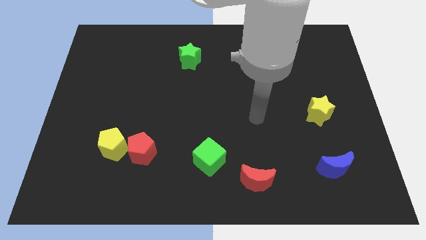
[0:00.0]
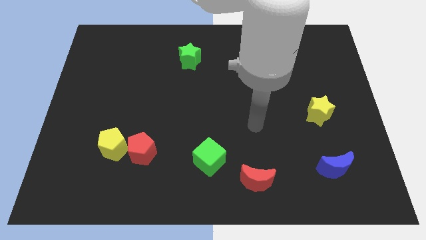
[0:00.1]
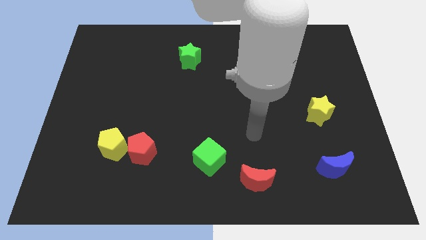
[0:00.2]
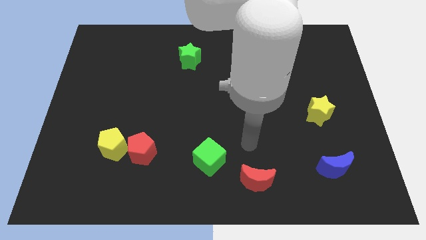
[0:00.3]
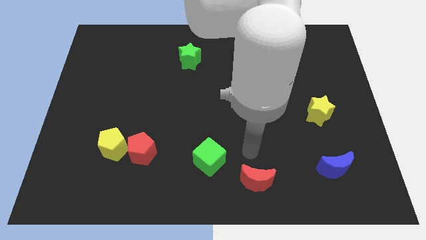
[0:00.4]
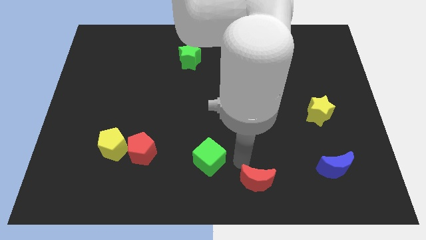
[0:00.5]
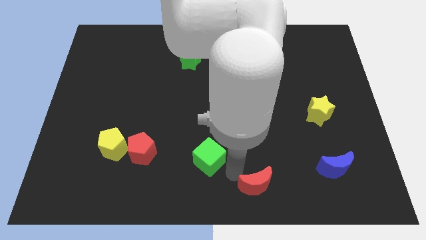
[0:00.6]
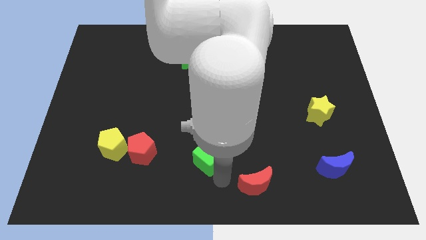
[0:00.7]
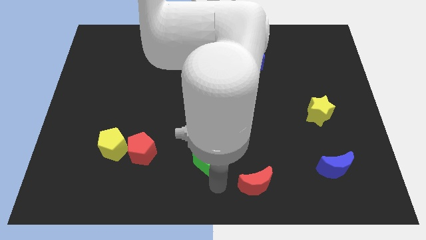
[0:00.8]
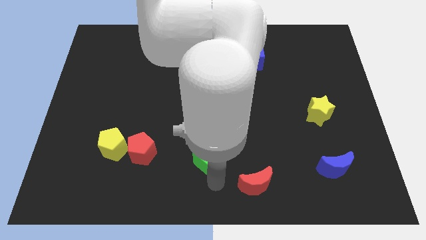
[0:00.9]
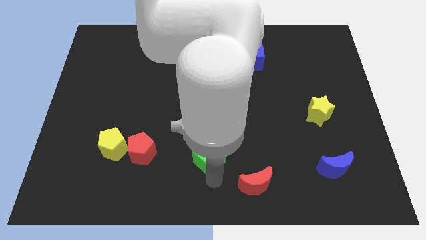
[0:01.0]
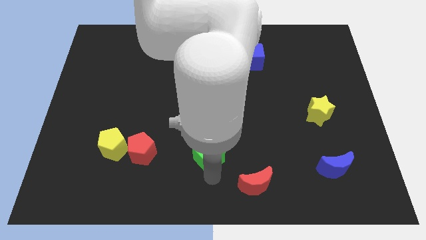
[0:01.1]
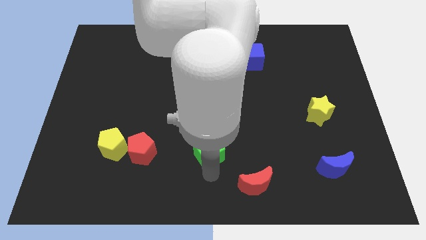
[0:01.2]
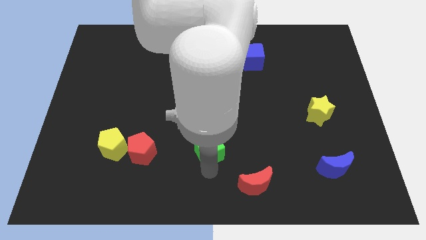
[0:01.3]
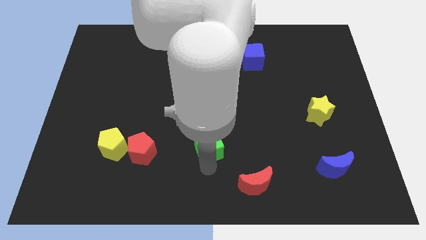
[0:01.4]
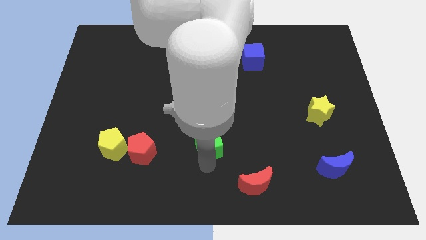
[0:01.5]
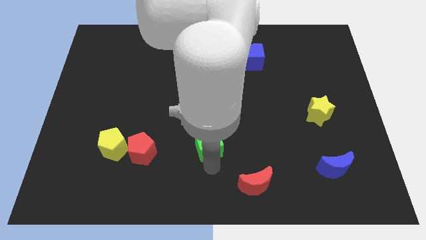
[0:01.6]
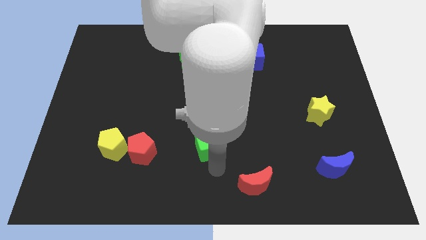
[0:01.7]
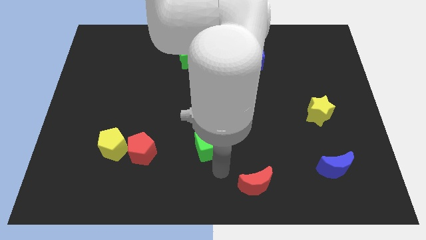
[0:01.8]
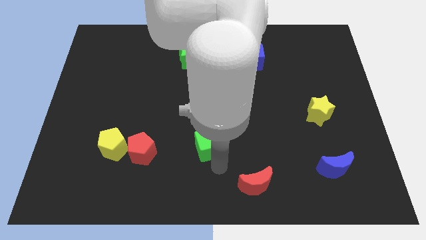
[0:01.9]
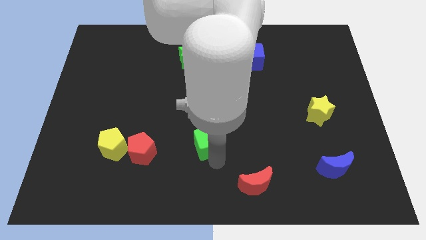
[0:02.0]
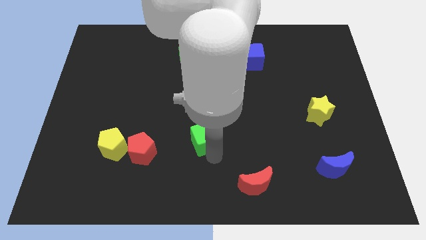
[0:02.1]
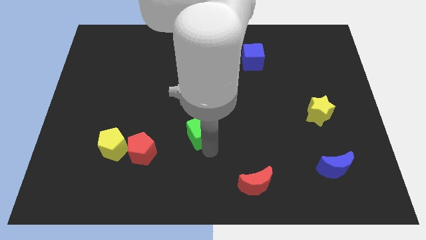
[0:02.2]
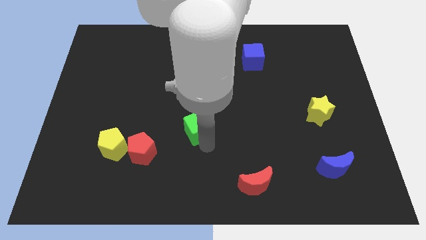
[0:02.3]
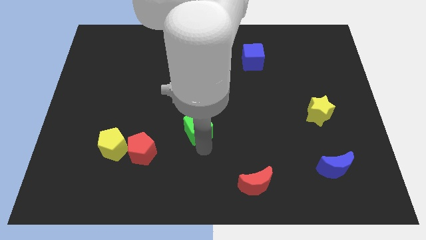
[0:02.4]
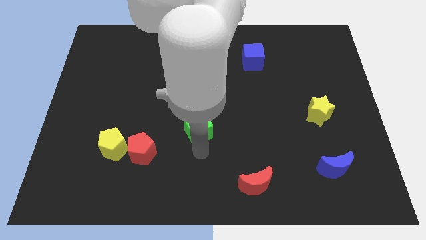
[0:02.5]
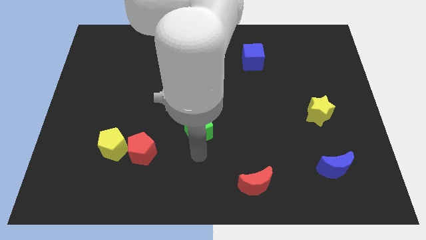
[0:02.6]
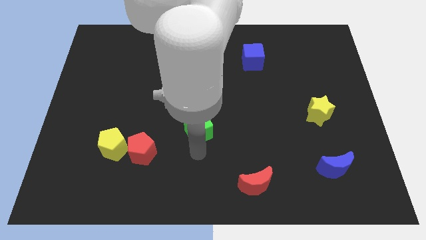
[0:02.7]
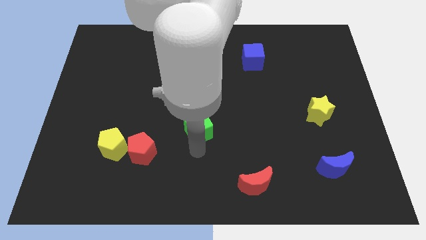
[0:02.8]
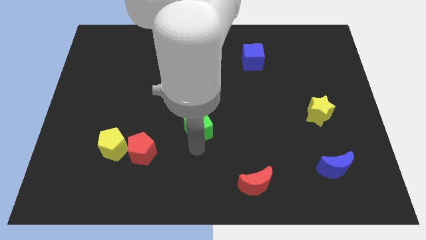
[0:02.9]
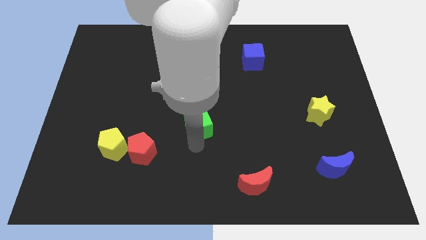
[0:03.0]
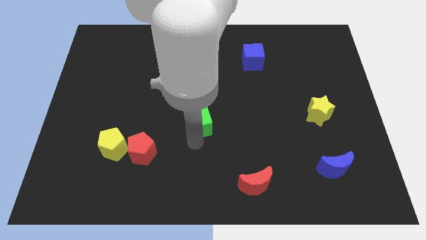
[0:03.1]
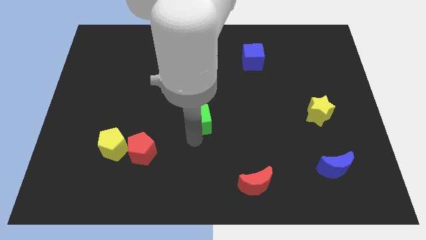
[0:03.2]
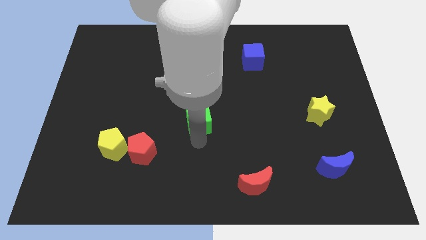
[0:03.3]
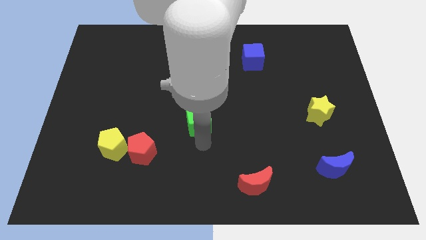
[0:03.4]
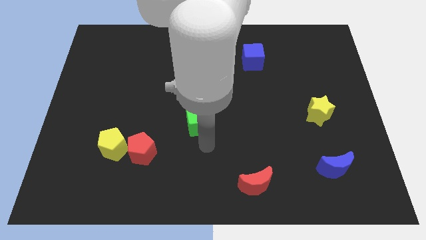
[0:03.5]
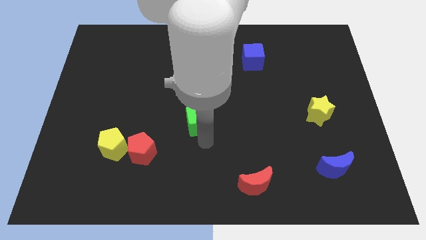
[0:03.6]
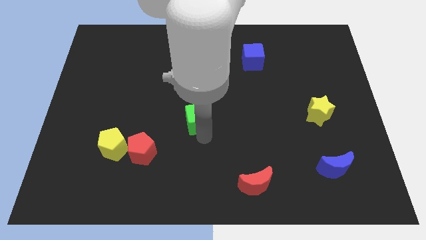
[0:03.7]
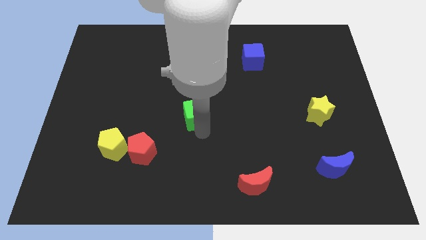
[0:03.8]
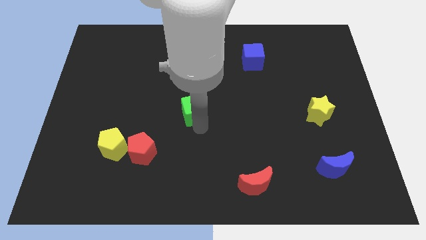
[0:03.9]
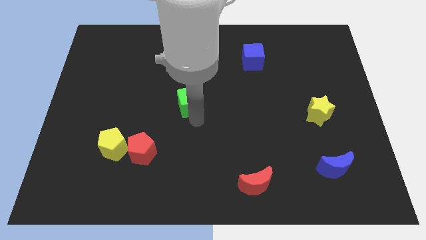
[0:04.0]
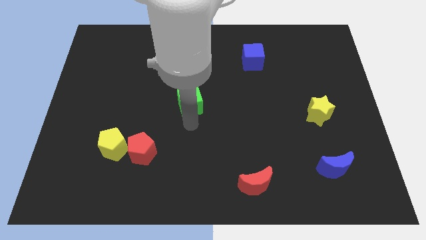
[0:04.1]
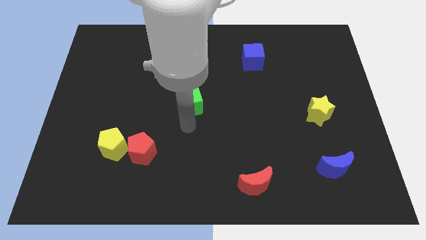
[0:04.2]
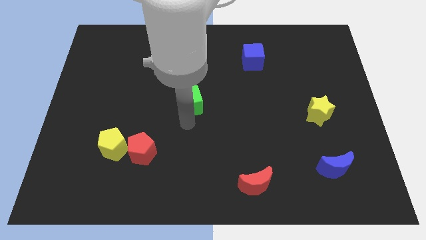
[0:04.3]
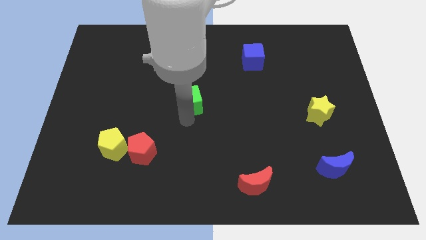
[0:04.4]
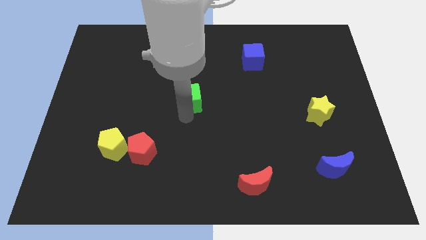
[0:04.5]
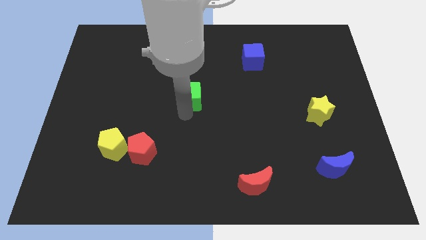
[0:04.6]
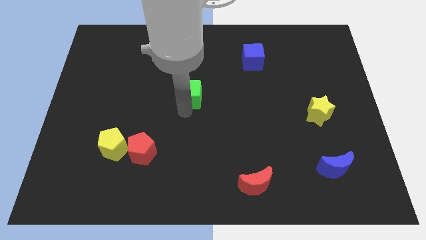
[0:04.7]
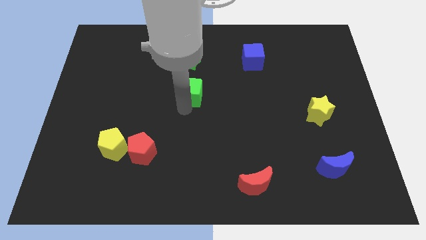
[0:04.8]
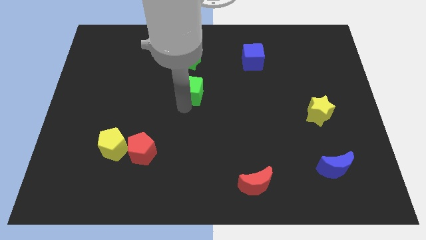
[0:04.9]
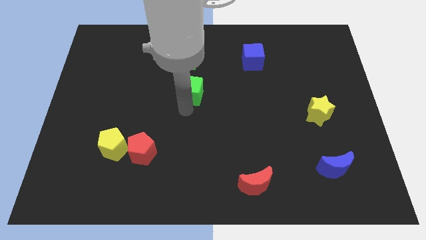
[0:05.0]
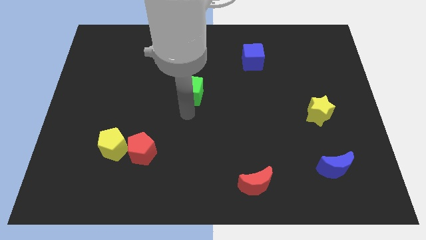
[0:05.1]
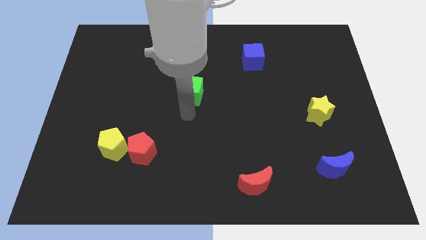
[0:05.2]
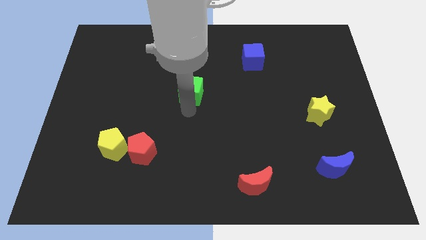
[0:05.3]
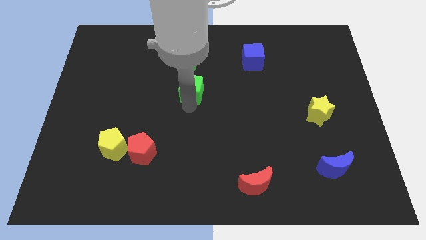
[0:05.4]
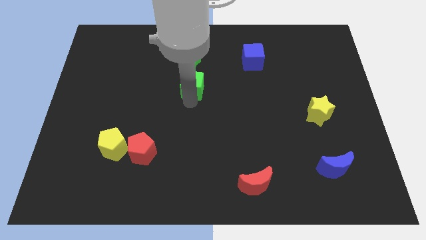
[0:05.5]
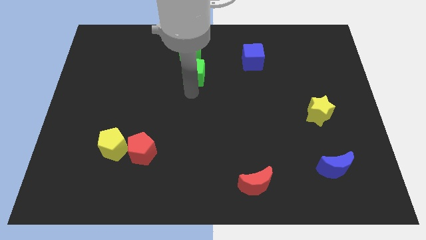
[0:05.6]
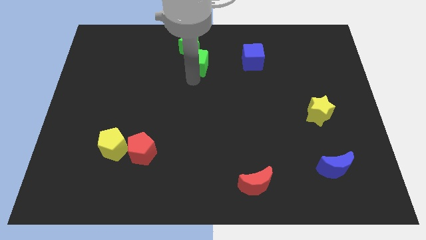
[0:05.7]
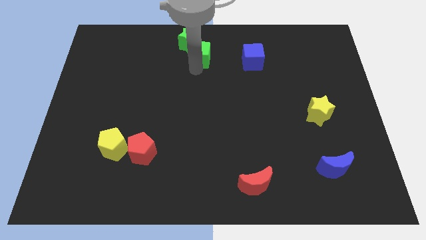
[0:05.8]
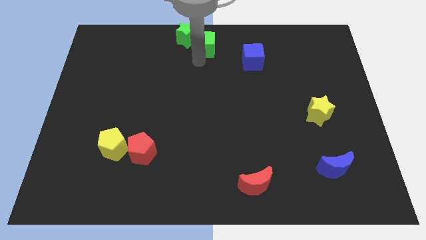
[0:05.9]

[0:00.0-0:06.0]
move the green cube to the top side
